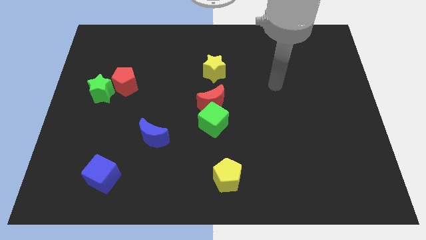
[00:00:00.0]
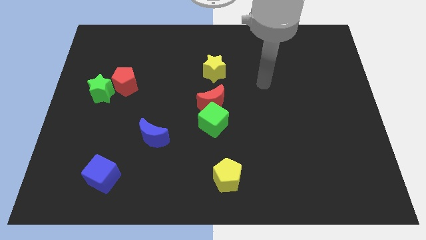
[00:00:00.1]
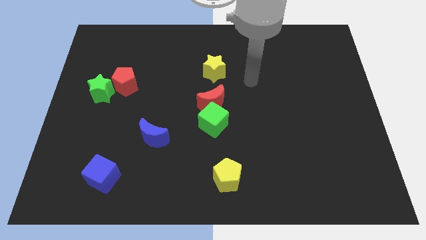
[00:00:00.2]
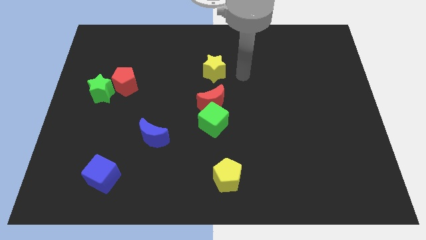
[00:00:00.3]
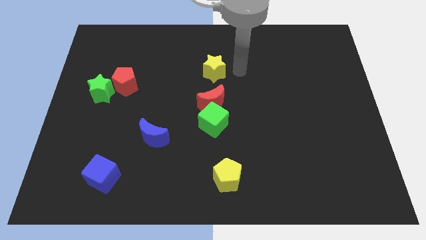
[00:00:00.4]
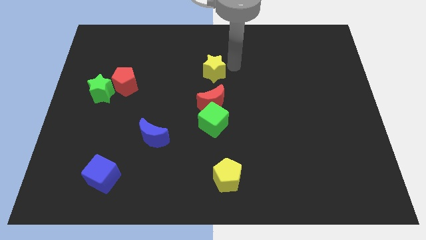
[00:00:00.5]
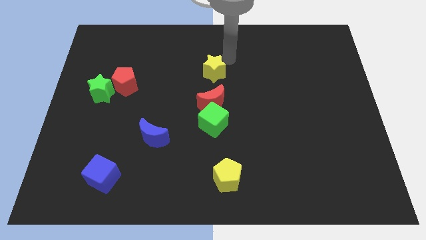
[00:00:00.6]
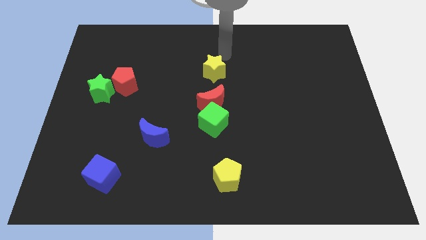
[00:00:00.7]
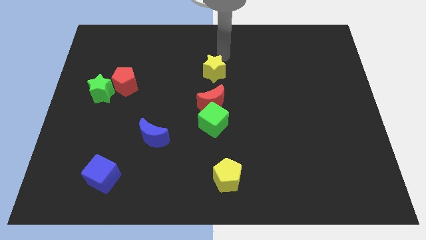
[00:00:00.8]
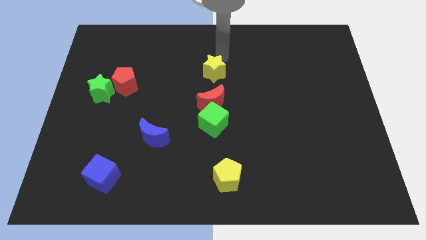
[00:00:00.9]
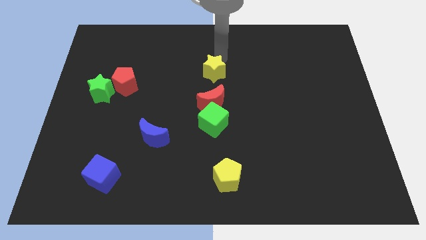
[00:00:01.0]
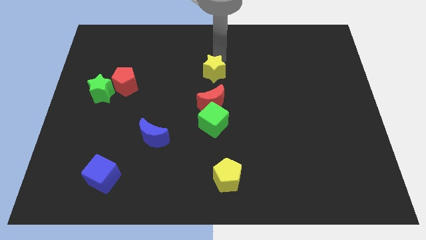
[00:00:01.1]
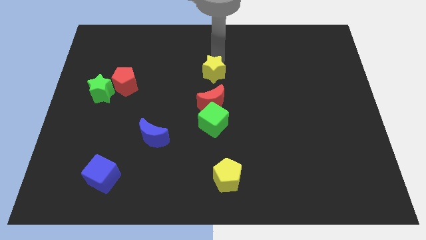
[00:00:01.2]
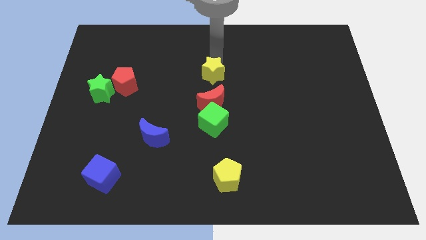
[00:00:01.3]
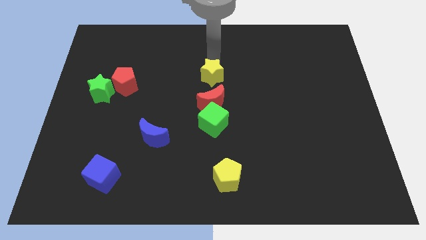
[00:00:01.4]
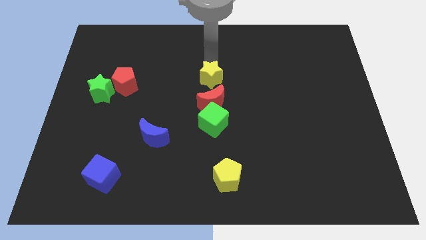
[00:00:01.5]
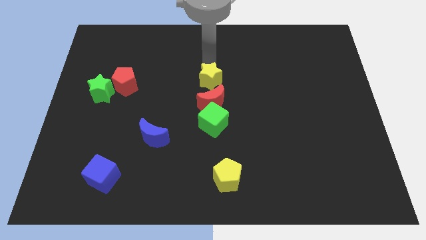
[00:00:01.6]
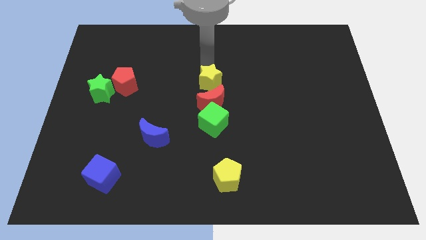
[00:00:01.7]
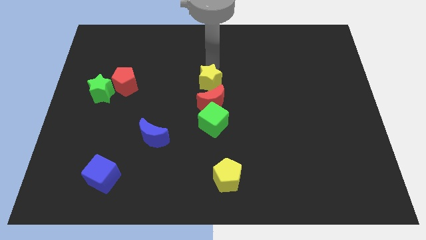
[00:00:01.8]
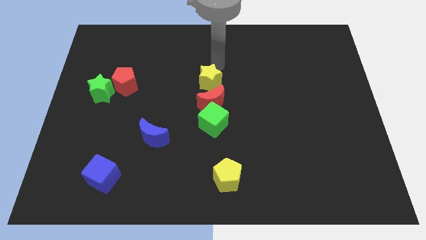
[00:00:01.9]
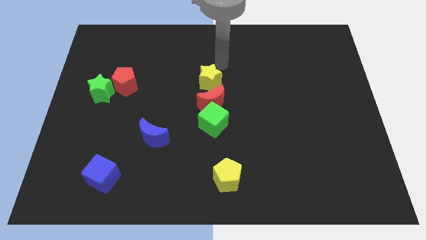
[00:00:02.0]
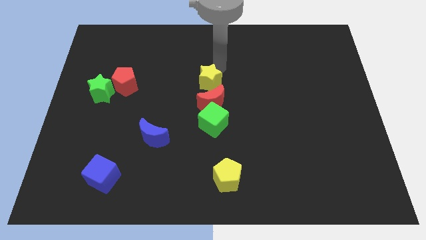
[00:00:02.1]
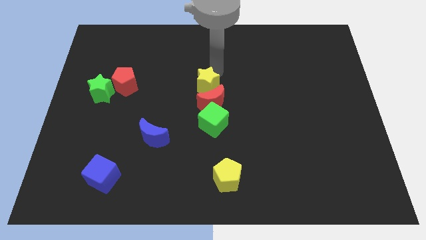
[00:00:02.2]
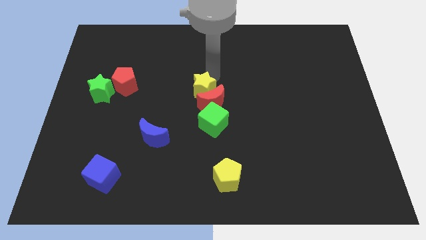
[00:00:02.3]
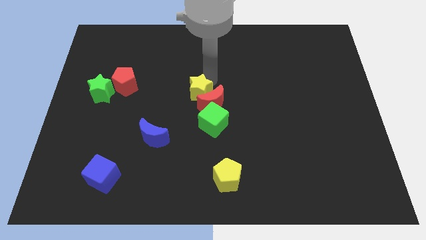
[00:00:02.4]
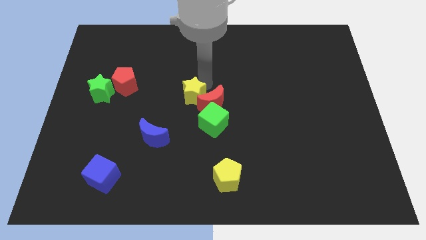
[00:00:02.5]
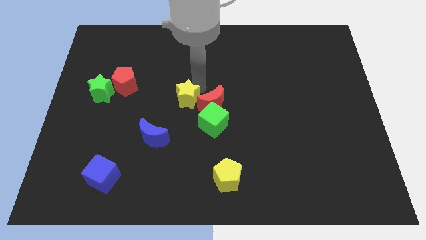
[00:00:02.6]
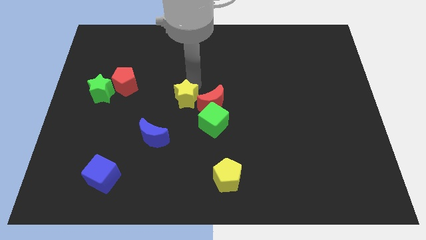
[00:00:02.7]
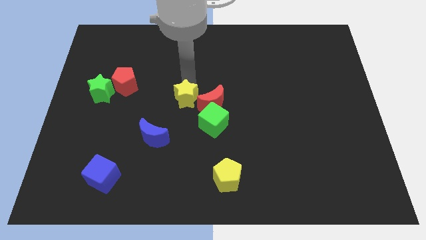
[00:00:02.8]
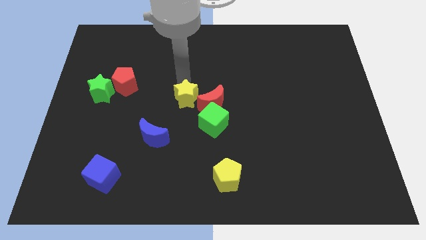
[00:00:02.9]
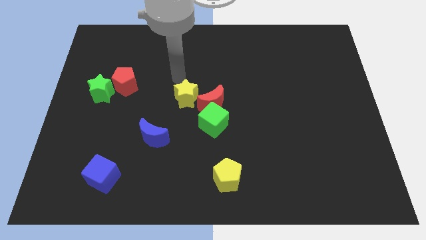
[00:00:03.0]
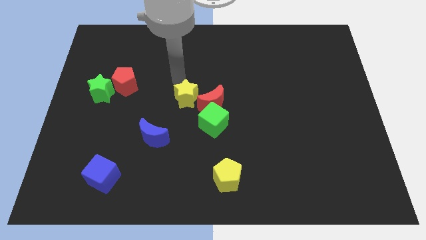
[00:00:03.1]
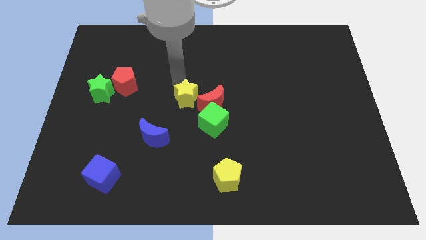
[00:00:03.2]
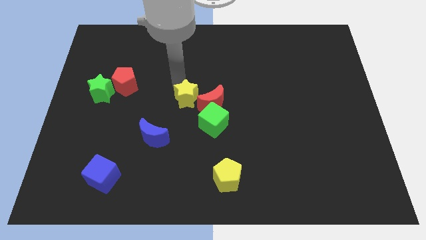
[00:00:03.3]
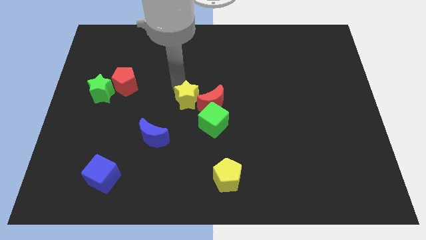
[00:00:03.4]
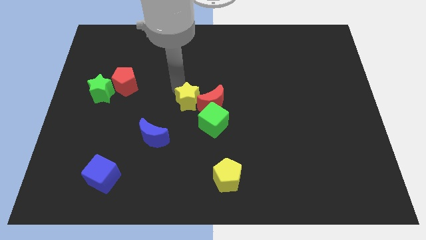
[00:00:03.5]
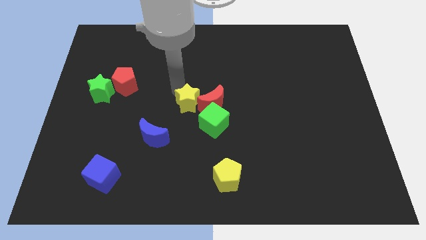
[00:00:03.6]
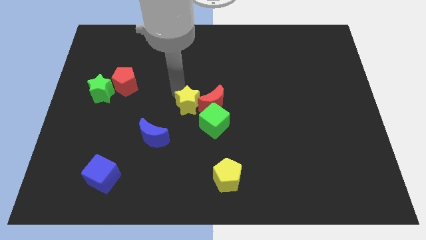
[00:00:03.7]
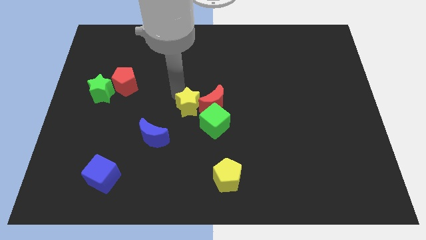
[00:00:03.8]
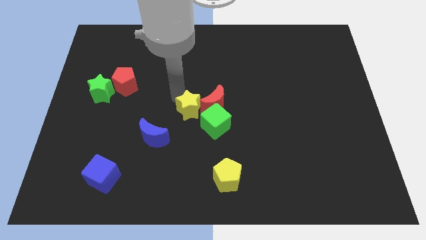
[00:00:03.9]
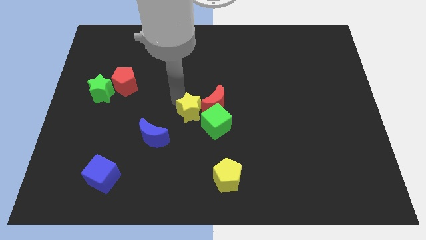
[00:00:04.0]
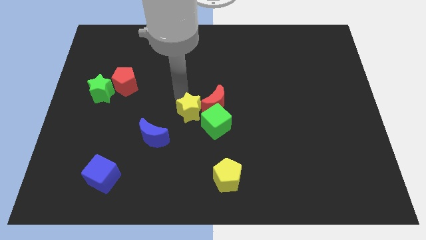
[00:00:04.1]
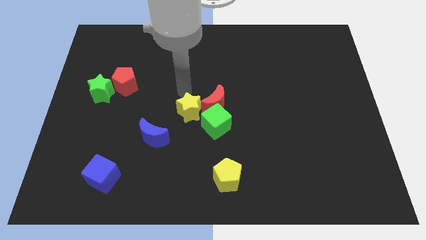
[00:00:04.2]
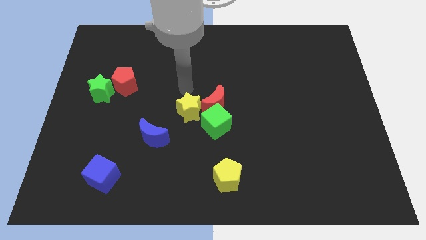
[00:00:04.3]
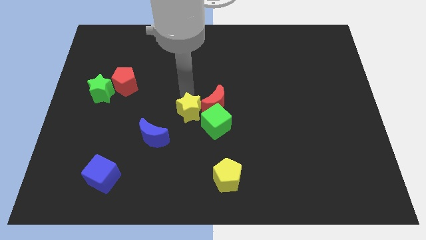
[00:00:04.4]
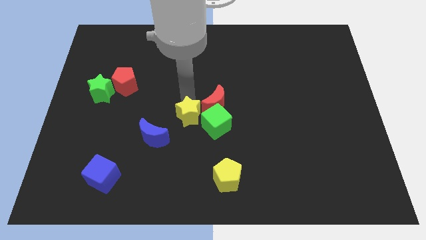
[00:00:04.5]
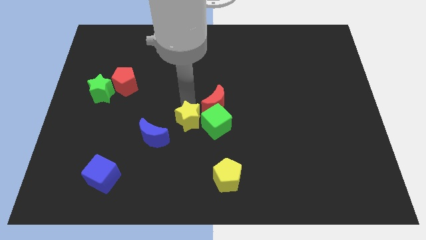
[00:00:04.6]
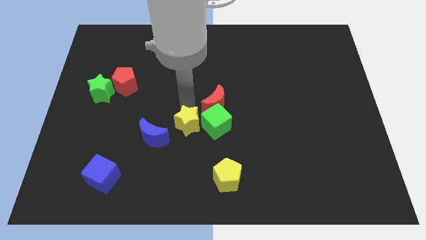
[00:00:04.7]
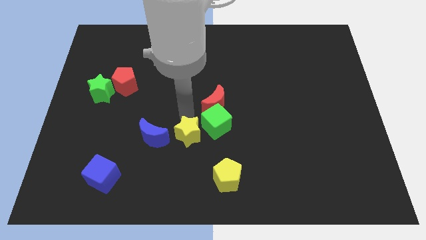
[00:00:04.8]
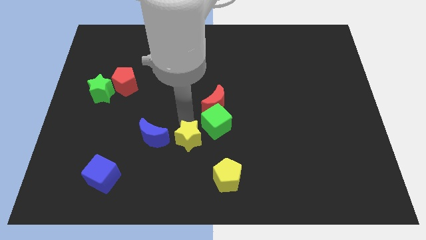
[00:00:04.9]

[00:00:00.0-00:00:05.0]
slide the yellow star diagonally up and to the left of the yellow pentagon

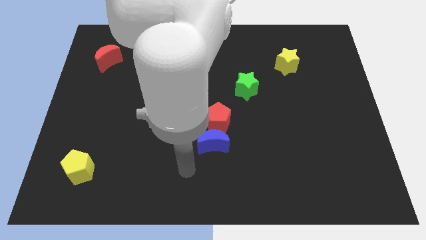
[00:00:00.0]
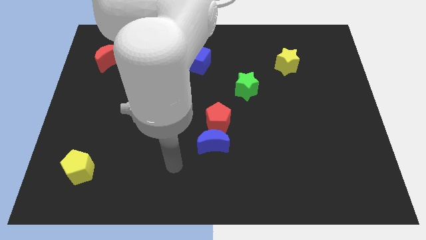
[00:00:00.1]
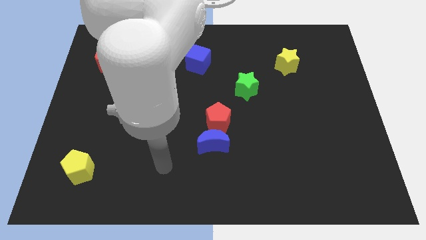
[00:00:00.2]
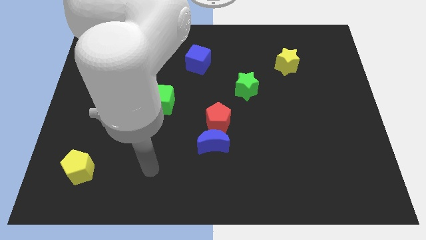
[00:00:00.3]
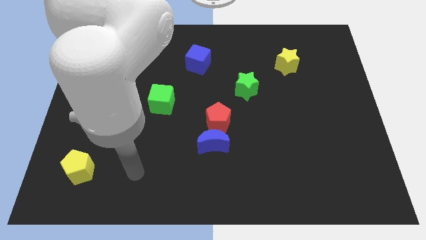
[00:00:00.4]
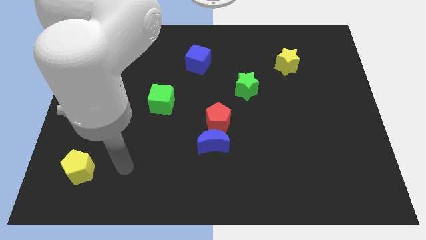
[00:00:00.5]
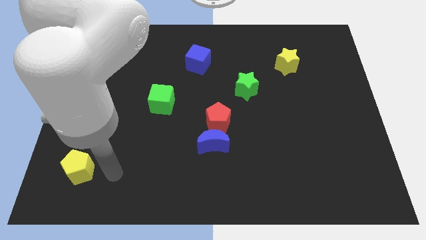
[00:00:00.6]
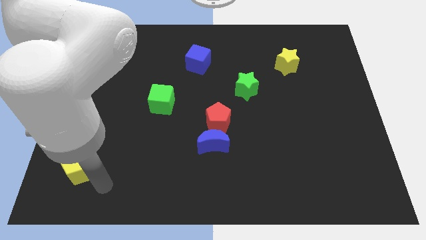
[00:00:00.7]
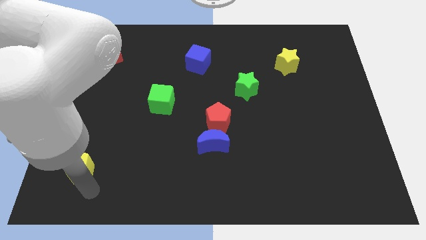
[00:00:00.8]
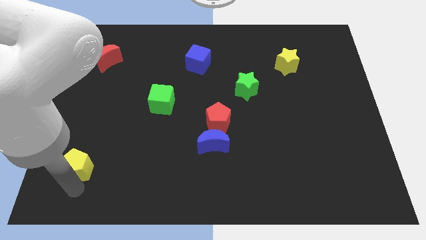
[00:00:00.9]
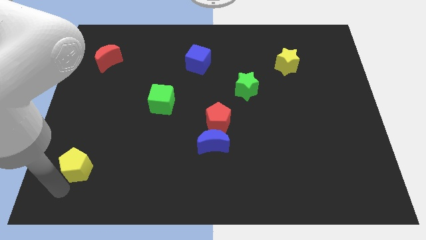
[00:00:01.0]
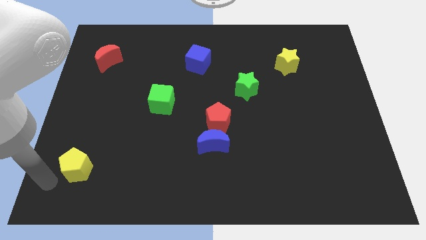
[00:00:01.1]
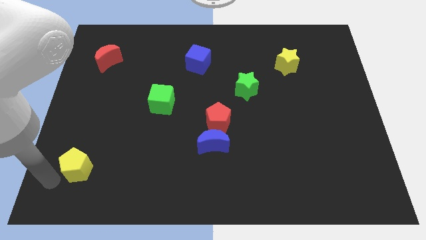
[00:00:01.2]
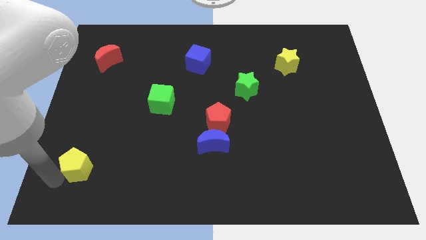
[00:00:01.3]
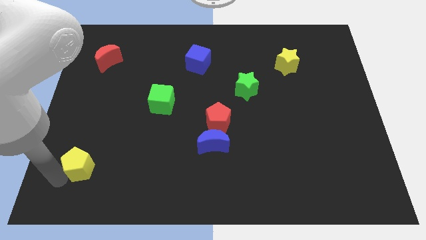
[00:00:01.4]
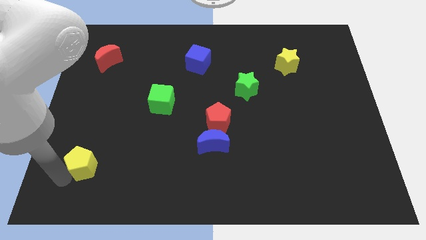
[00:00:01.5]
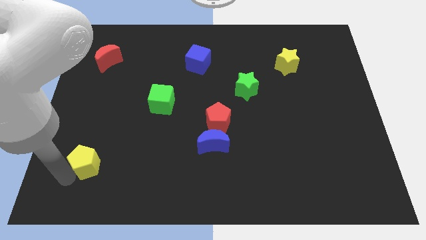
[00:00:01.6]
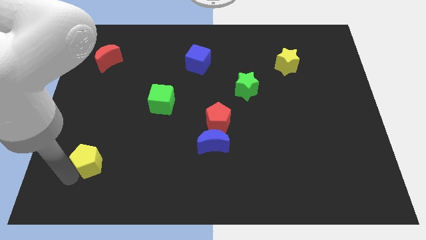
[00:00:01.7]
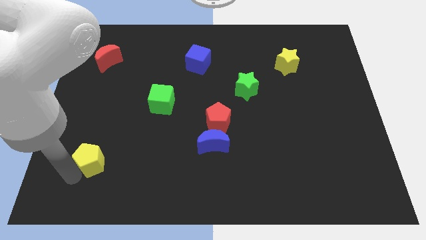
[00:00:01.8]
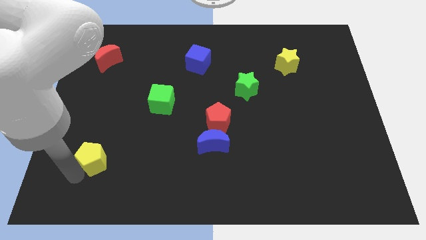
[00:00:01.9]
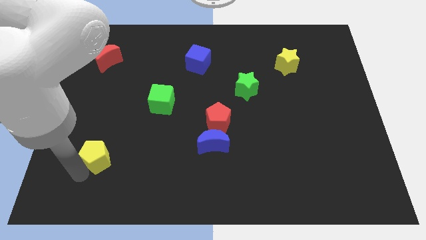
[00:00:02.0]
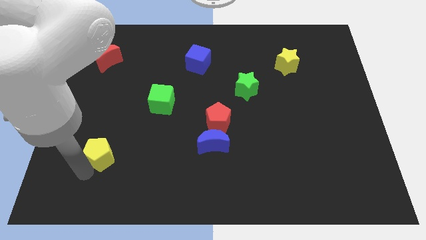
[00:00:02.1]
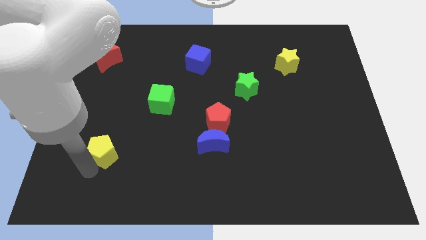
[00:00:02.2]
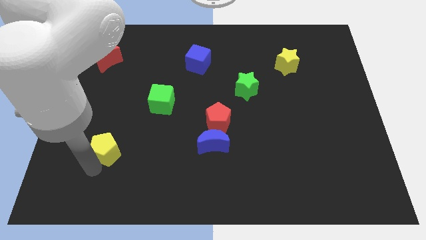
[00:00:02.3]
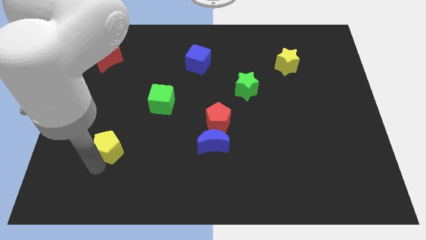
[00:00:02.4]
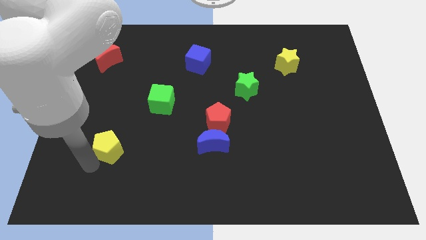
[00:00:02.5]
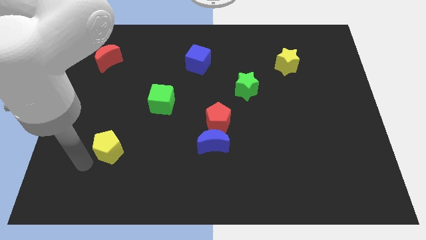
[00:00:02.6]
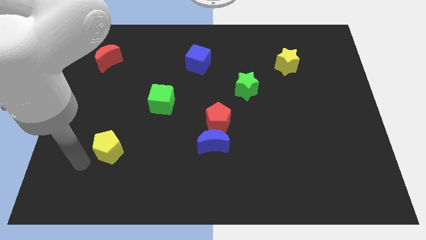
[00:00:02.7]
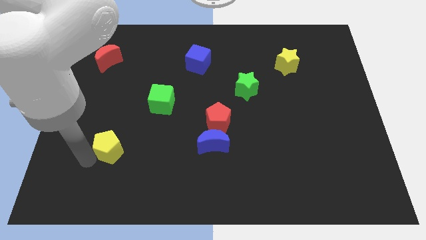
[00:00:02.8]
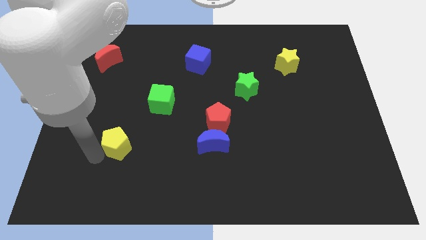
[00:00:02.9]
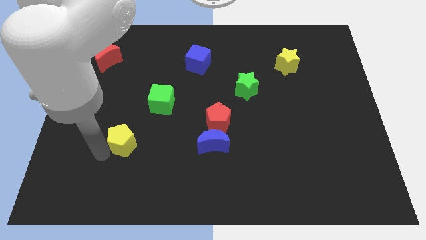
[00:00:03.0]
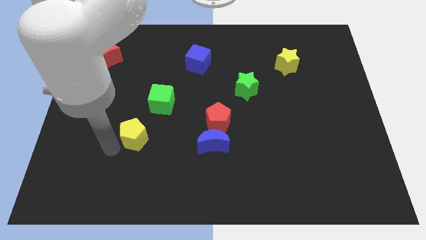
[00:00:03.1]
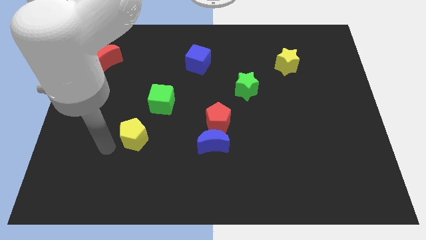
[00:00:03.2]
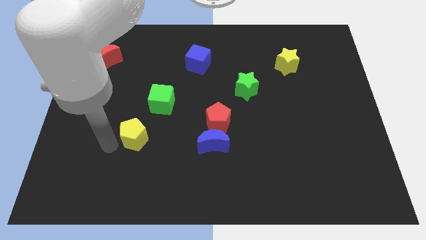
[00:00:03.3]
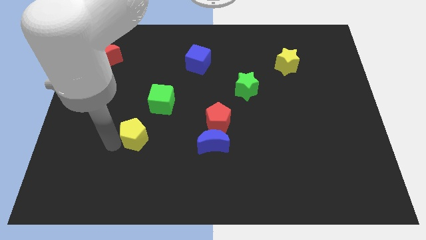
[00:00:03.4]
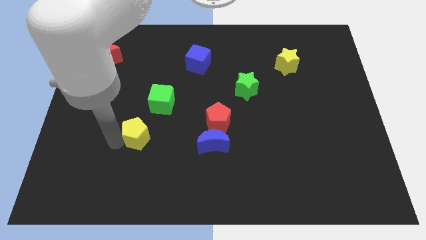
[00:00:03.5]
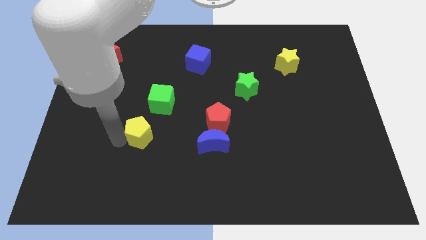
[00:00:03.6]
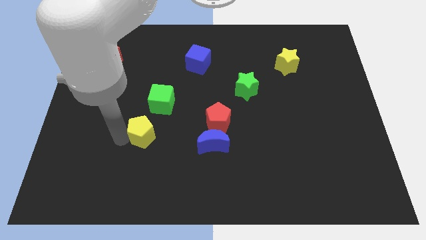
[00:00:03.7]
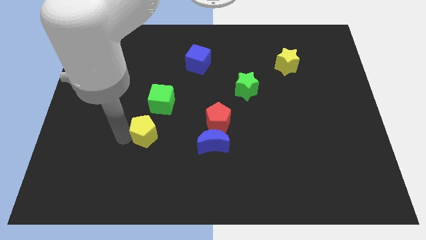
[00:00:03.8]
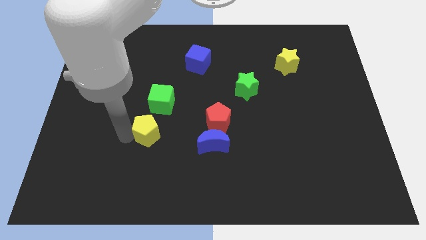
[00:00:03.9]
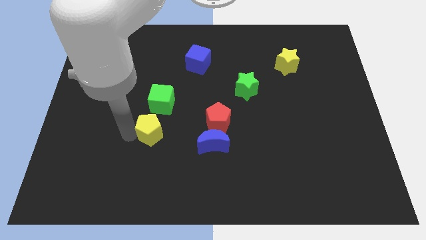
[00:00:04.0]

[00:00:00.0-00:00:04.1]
put the yellow pentagon just left of the red pentagon
